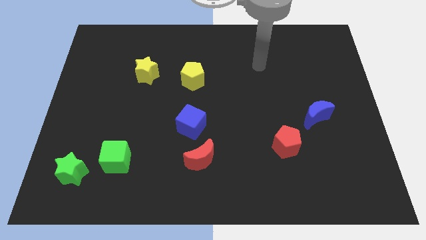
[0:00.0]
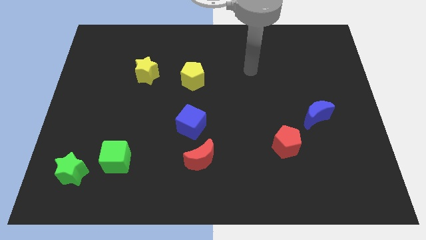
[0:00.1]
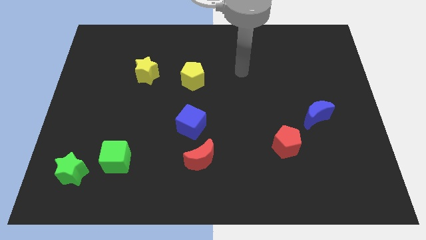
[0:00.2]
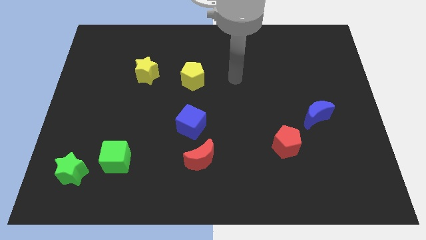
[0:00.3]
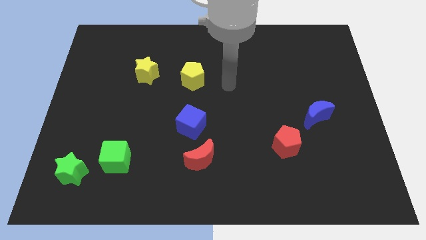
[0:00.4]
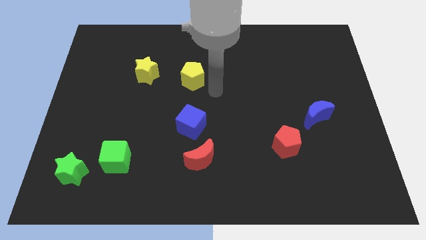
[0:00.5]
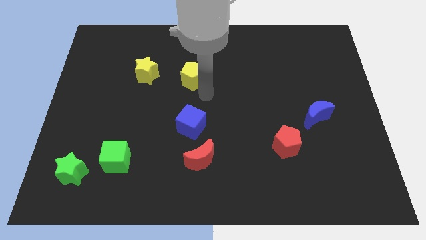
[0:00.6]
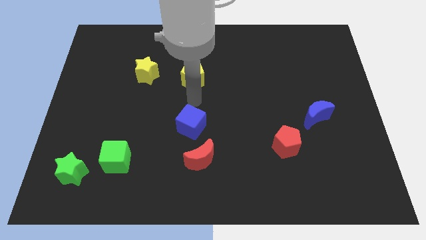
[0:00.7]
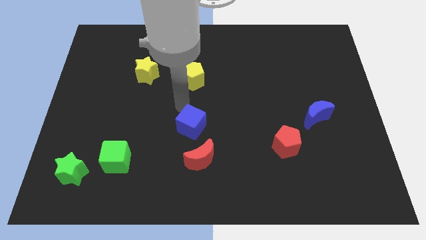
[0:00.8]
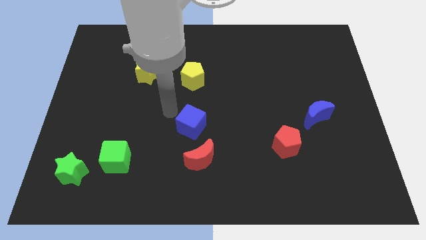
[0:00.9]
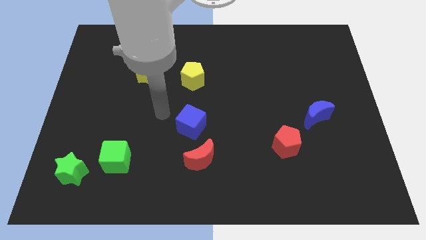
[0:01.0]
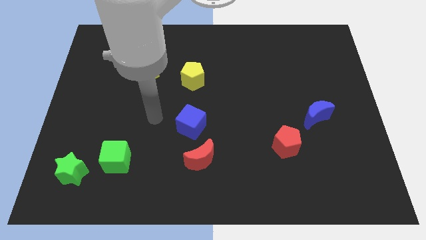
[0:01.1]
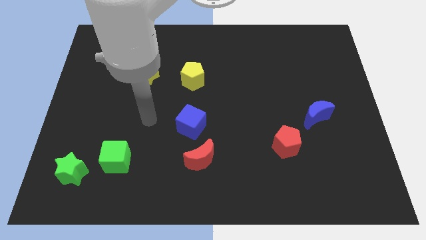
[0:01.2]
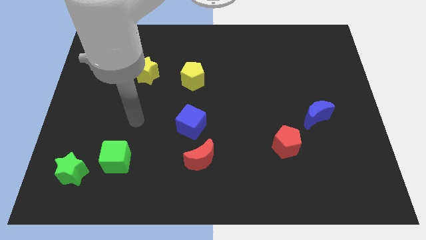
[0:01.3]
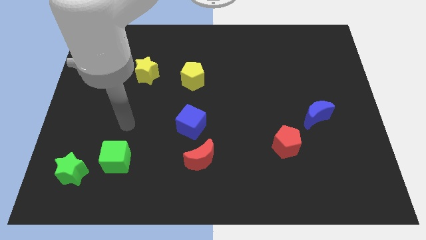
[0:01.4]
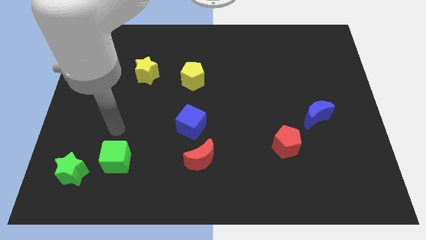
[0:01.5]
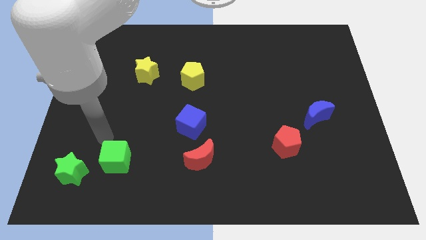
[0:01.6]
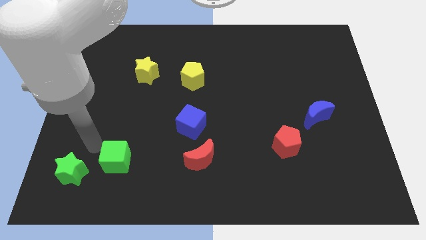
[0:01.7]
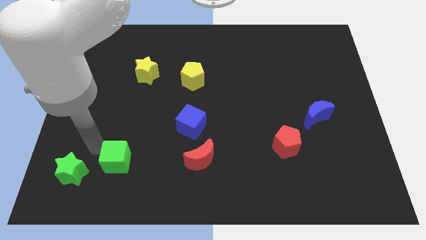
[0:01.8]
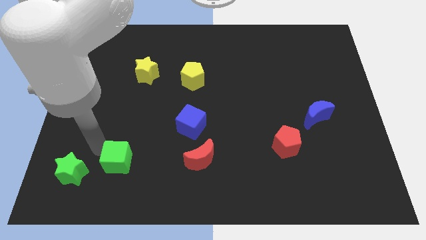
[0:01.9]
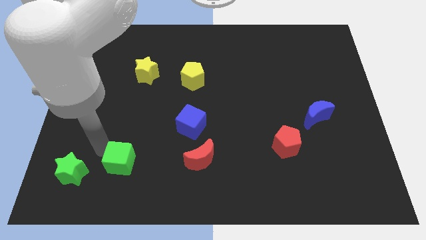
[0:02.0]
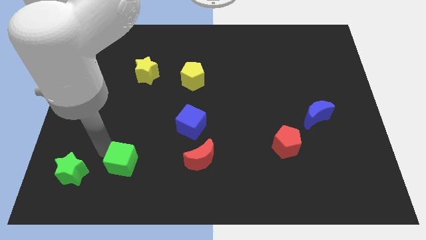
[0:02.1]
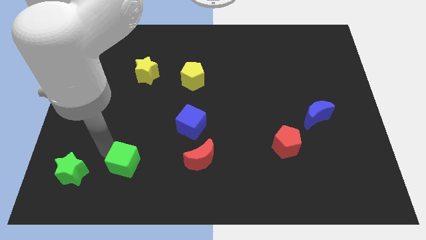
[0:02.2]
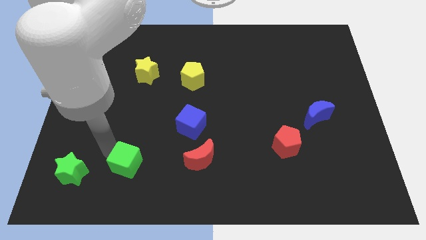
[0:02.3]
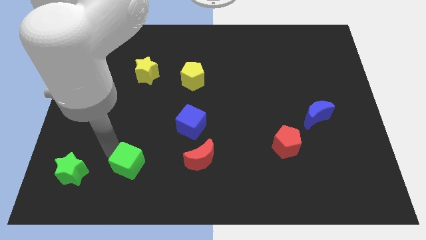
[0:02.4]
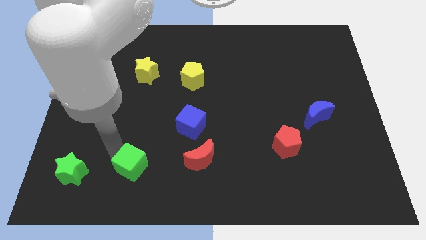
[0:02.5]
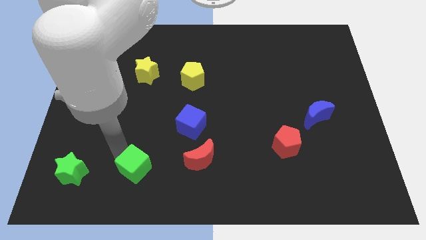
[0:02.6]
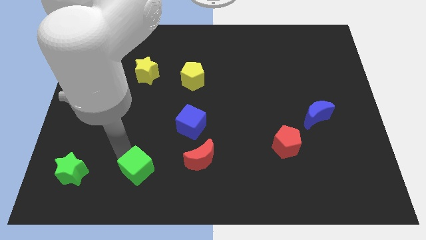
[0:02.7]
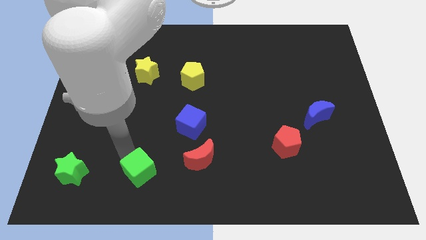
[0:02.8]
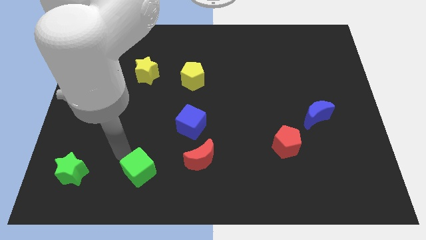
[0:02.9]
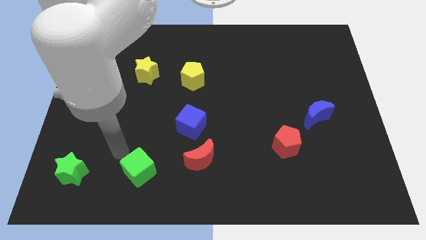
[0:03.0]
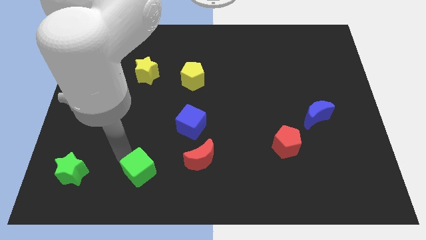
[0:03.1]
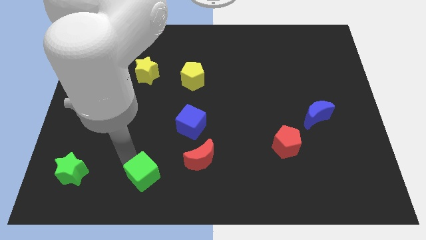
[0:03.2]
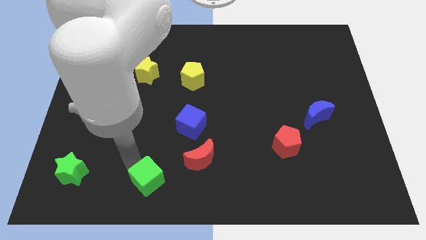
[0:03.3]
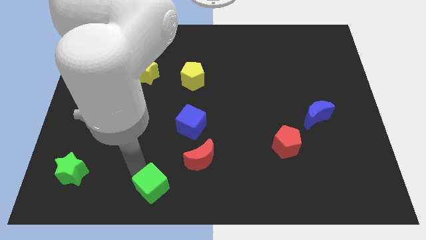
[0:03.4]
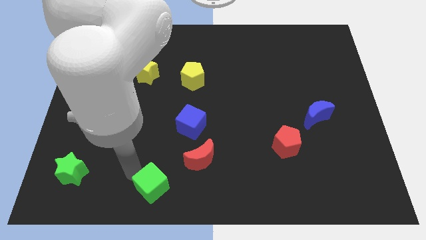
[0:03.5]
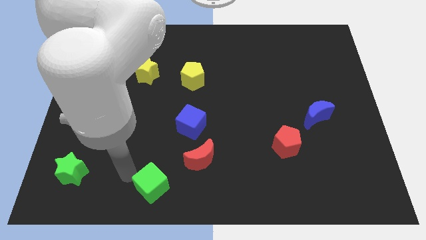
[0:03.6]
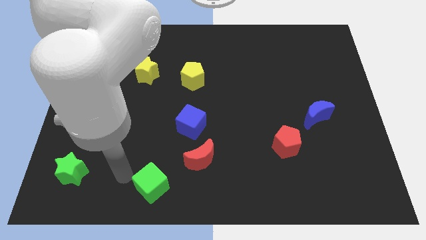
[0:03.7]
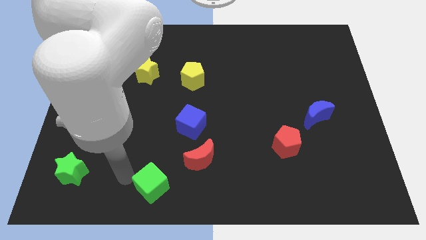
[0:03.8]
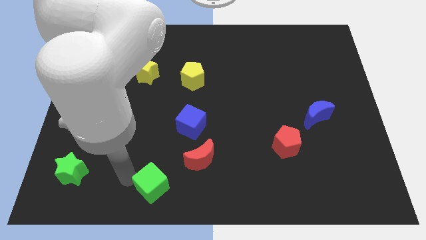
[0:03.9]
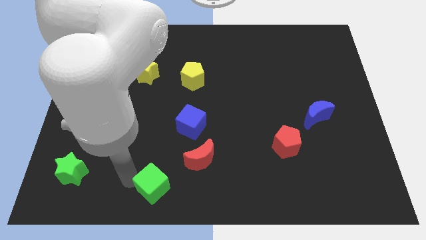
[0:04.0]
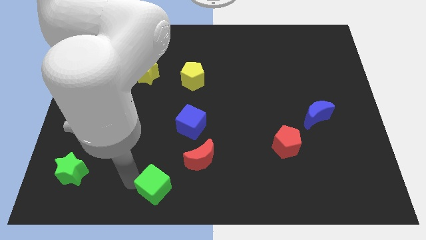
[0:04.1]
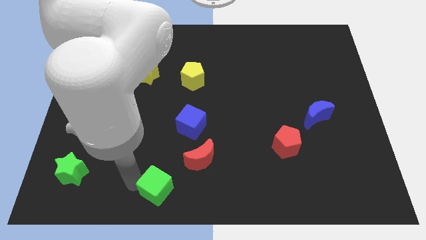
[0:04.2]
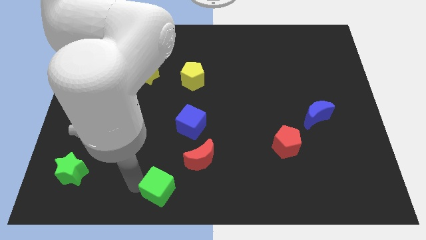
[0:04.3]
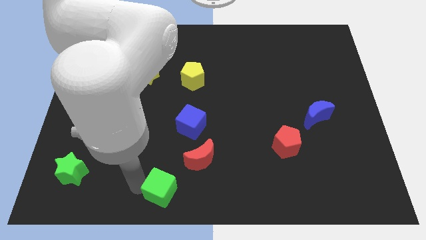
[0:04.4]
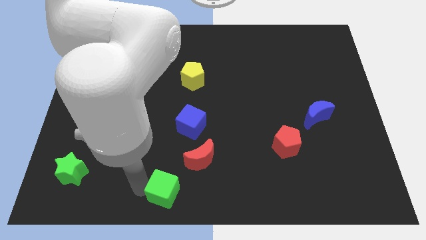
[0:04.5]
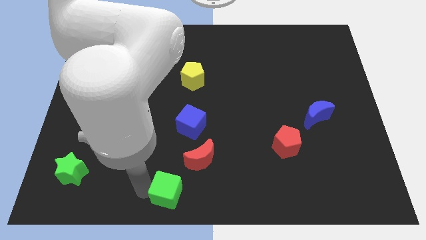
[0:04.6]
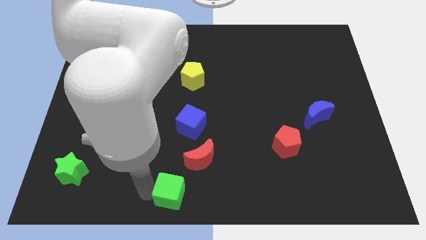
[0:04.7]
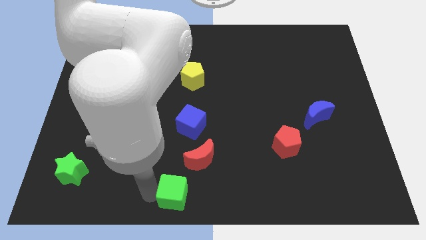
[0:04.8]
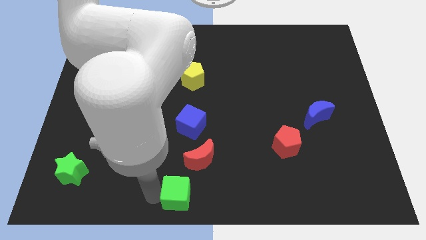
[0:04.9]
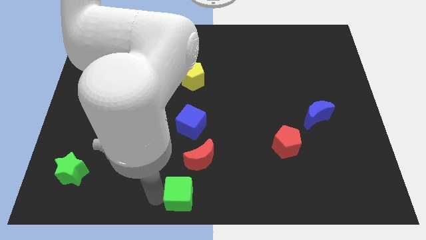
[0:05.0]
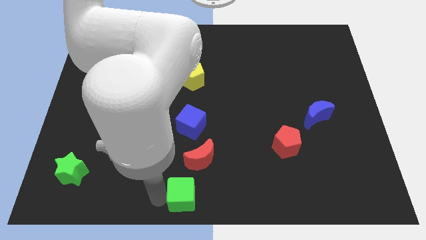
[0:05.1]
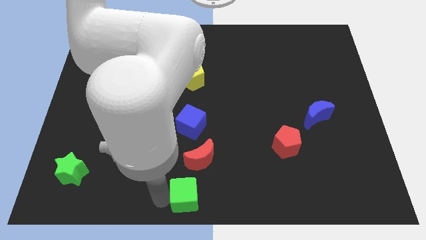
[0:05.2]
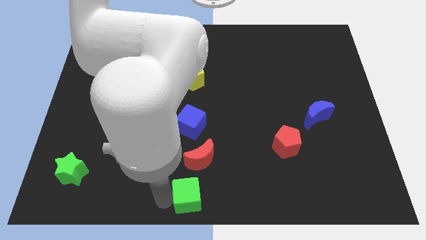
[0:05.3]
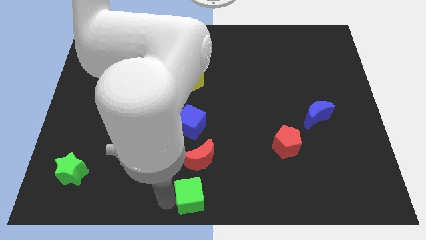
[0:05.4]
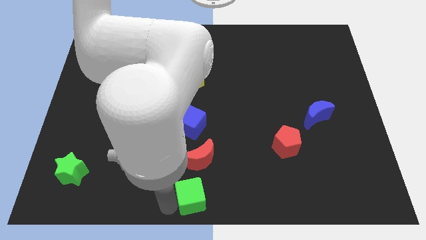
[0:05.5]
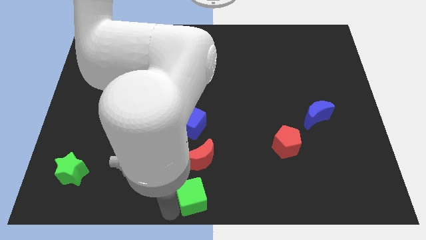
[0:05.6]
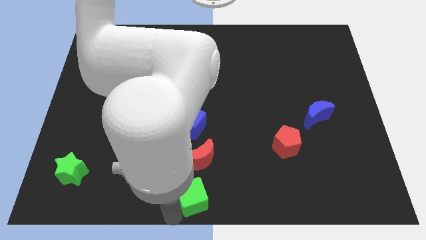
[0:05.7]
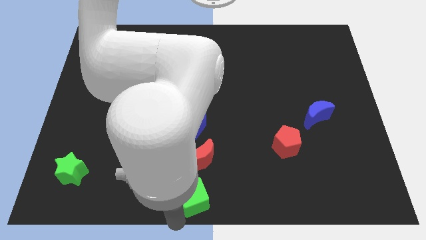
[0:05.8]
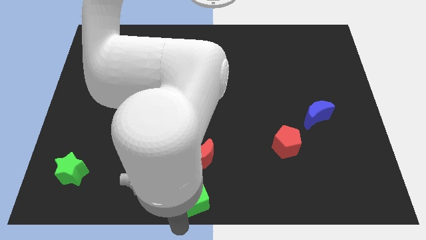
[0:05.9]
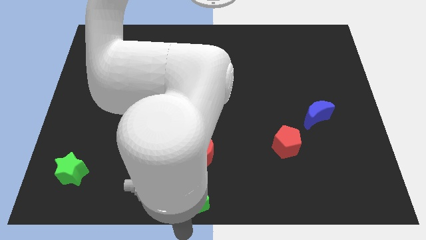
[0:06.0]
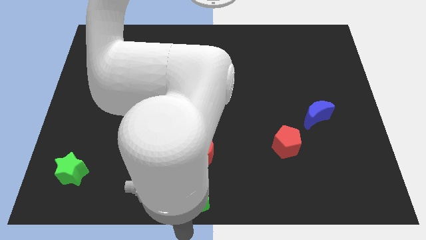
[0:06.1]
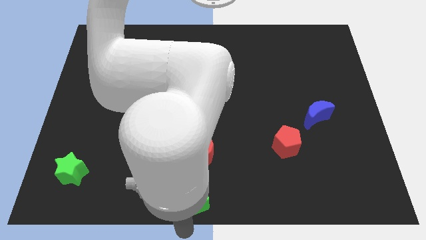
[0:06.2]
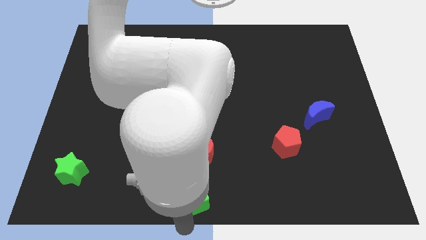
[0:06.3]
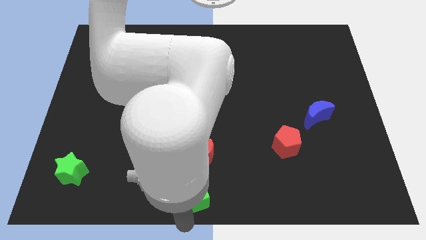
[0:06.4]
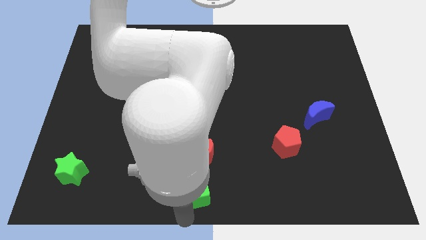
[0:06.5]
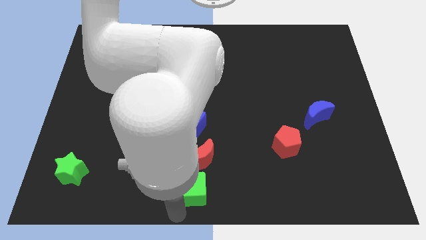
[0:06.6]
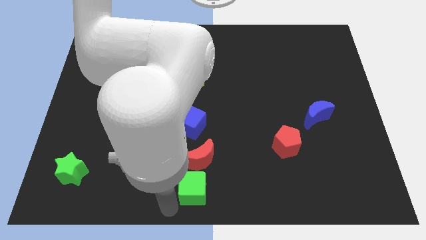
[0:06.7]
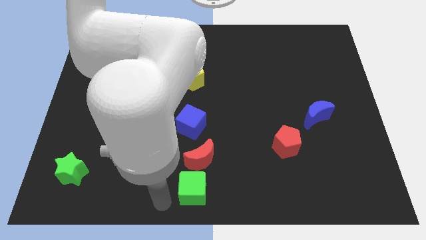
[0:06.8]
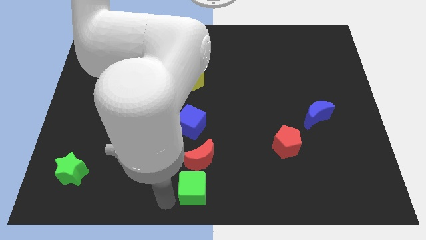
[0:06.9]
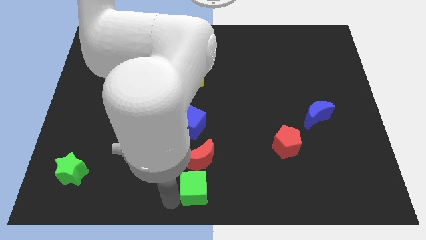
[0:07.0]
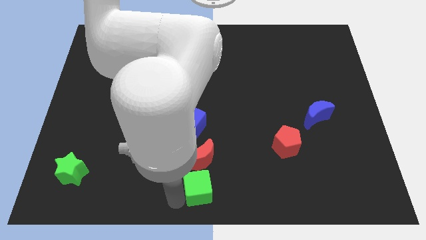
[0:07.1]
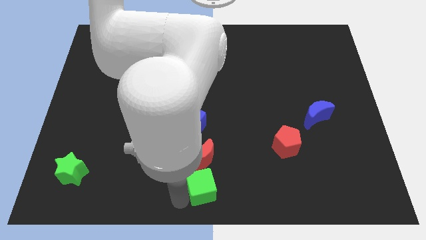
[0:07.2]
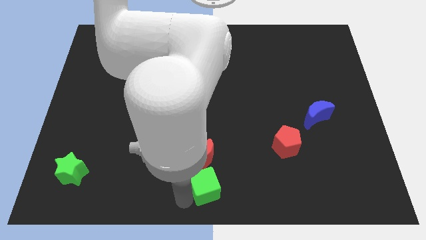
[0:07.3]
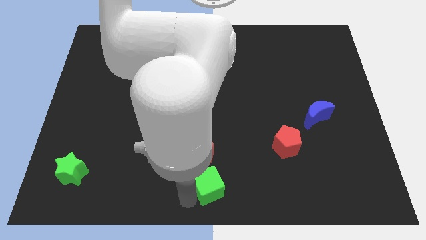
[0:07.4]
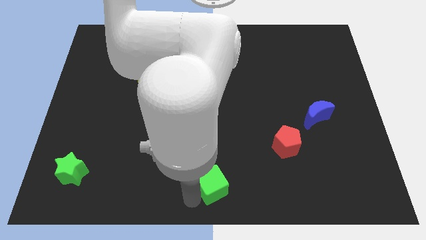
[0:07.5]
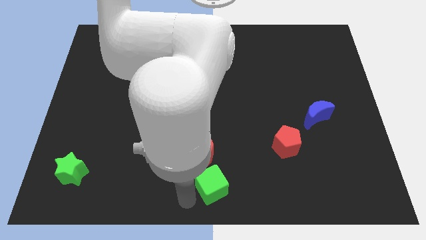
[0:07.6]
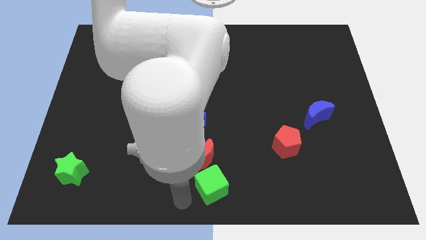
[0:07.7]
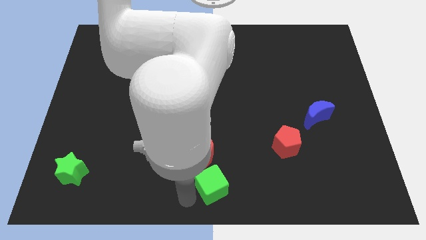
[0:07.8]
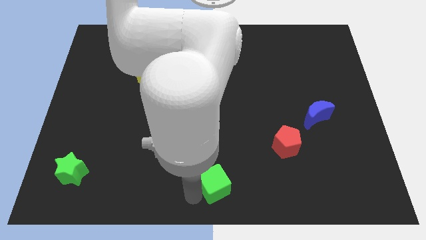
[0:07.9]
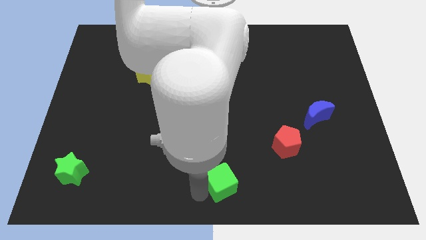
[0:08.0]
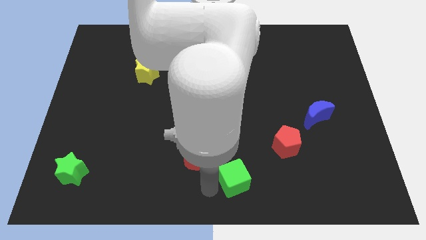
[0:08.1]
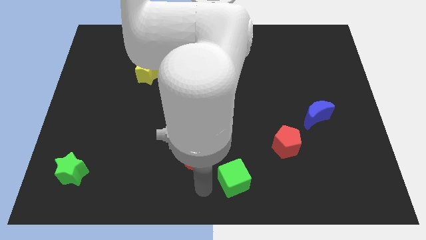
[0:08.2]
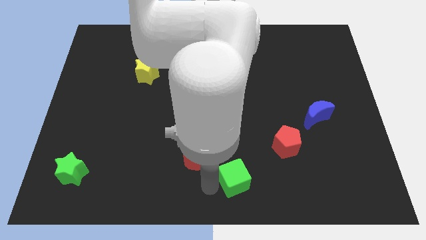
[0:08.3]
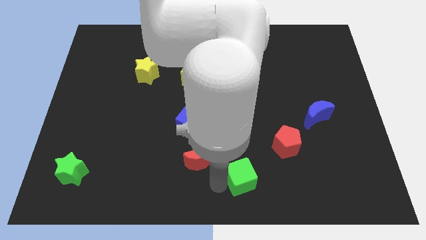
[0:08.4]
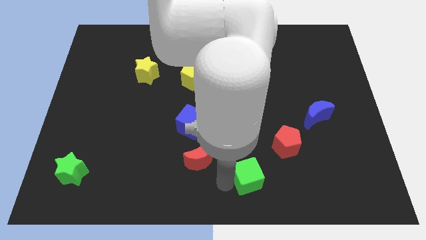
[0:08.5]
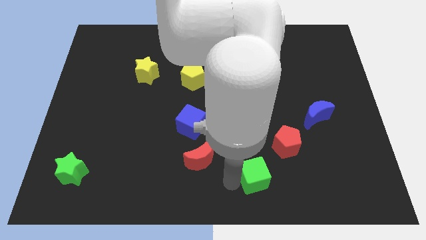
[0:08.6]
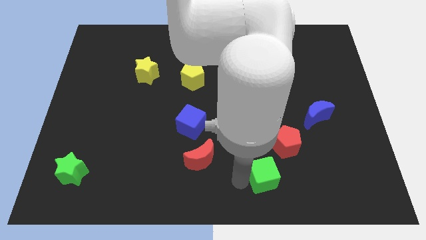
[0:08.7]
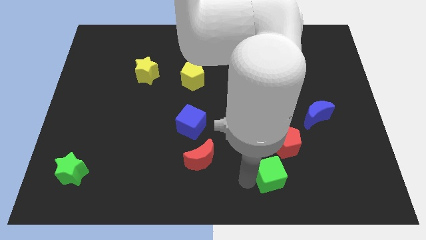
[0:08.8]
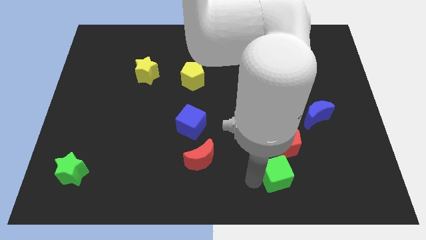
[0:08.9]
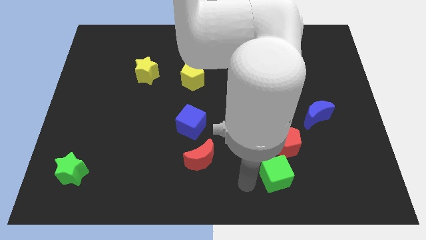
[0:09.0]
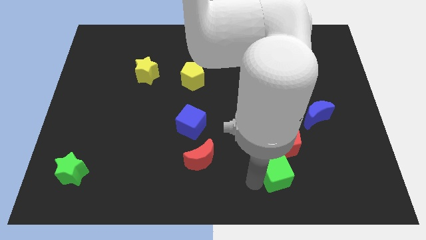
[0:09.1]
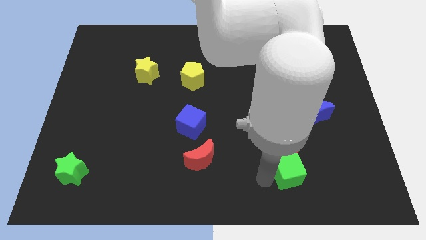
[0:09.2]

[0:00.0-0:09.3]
put the green cube to the bottom right side of the red pentagon
